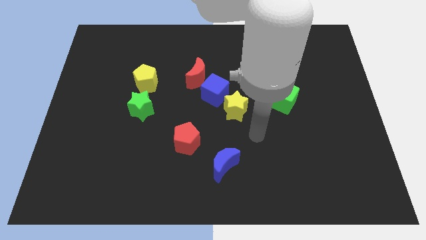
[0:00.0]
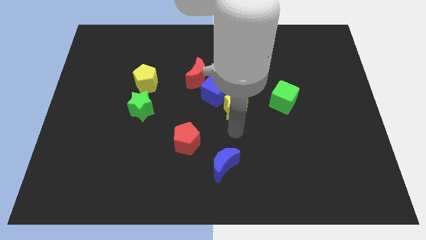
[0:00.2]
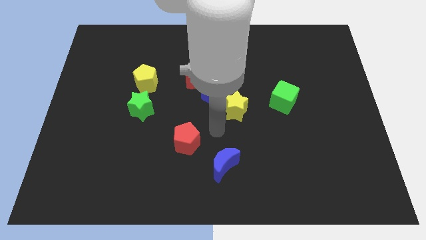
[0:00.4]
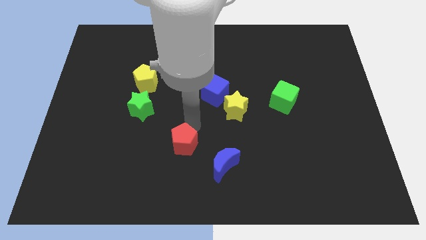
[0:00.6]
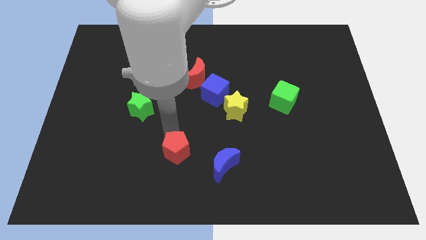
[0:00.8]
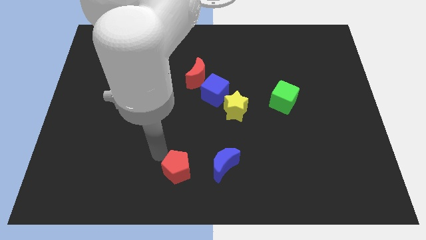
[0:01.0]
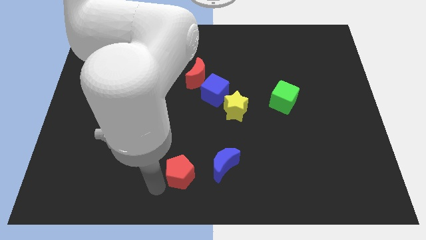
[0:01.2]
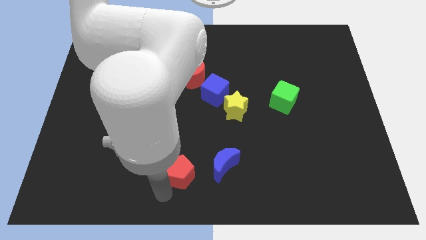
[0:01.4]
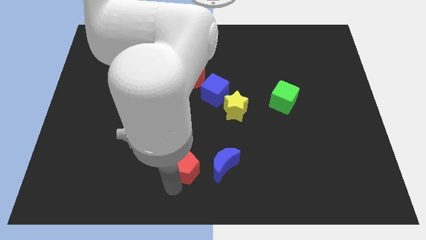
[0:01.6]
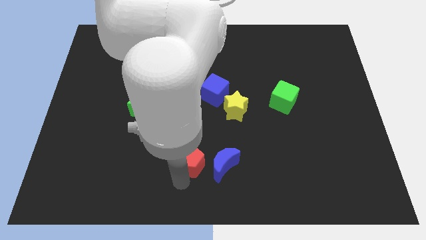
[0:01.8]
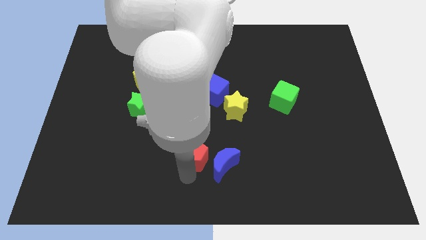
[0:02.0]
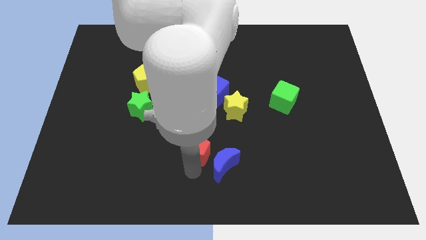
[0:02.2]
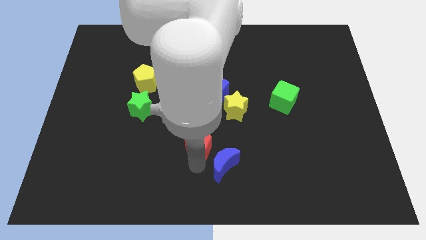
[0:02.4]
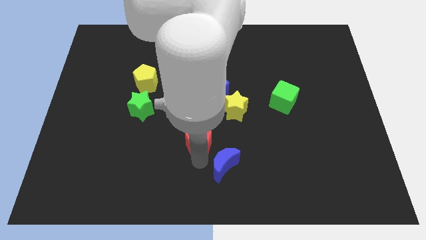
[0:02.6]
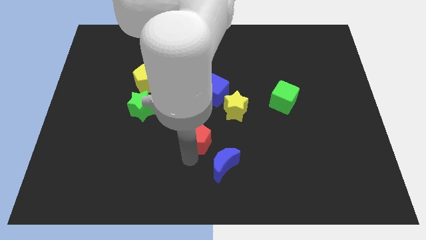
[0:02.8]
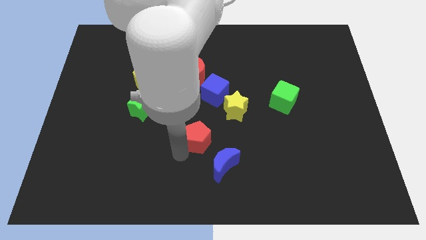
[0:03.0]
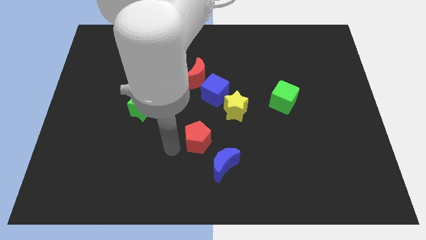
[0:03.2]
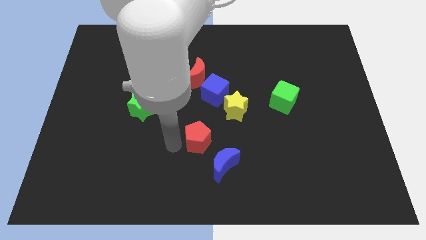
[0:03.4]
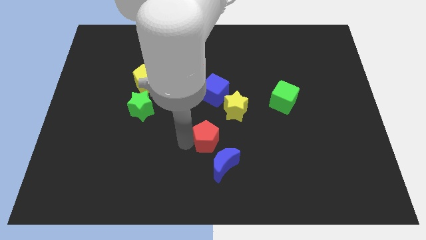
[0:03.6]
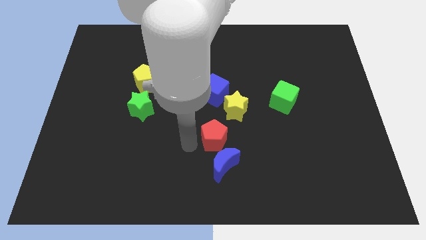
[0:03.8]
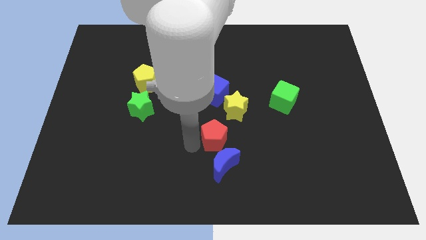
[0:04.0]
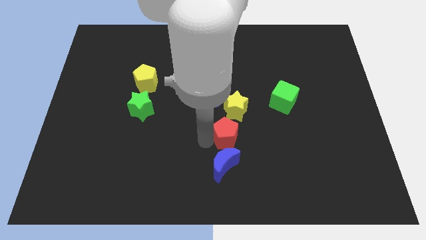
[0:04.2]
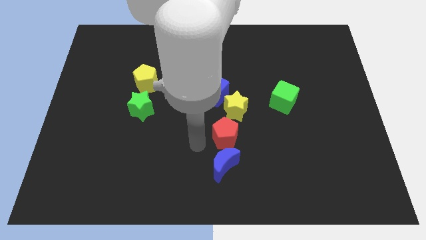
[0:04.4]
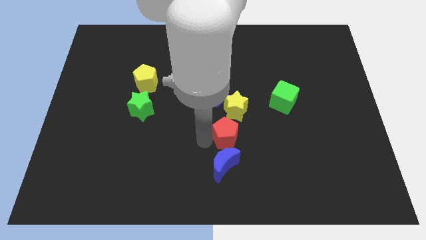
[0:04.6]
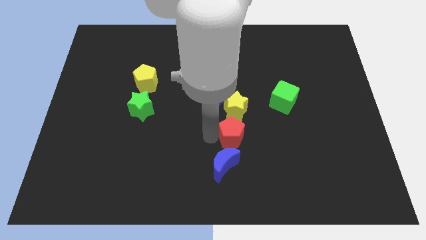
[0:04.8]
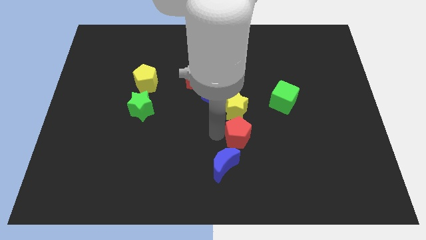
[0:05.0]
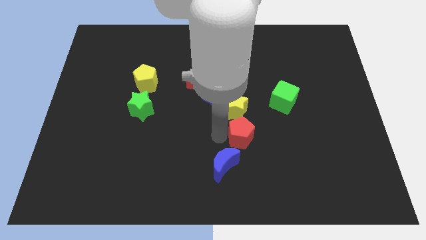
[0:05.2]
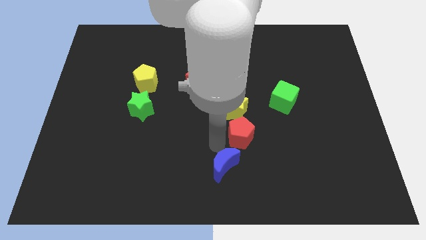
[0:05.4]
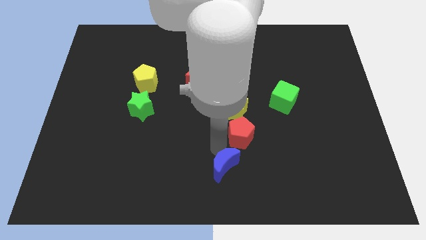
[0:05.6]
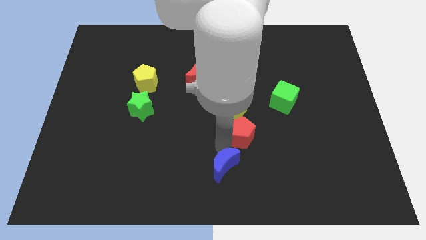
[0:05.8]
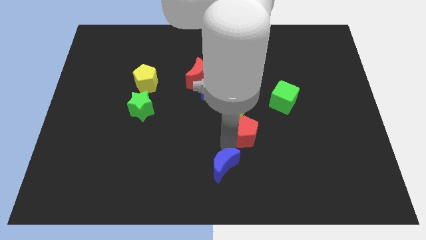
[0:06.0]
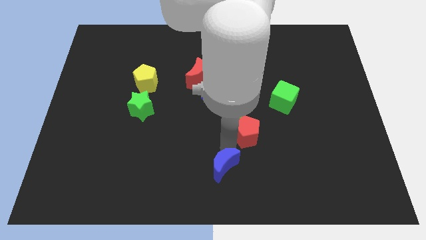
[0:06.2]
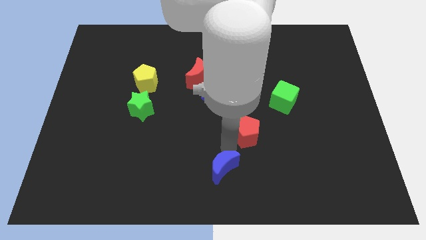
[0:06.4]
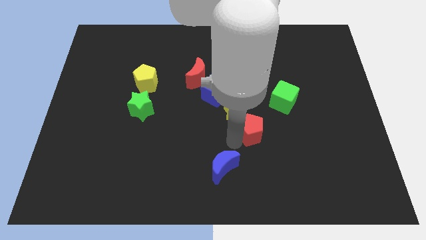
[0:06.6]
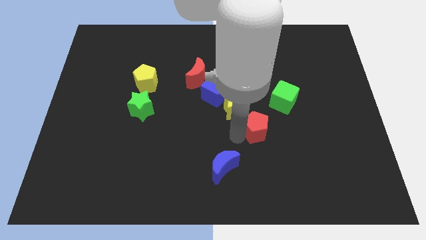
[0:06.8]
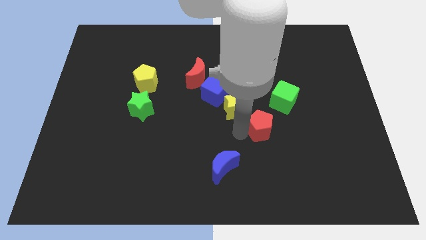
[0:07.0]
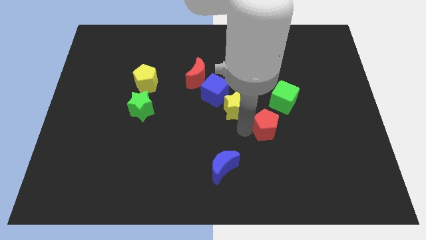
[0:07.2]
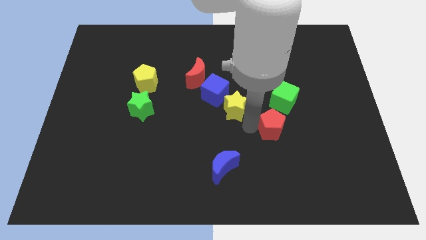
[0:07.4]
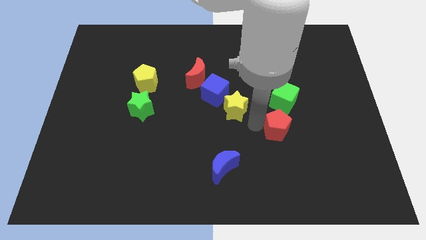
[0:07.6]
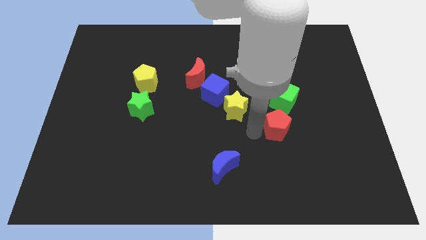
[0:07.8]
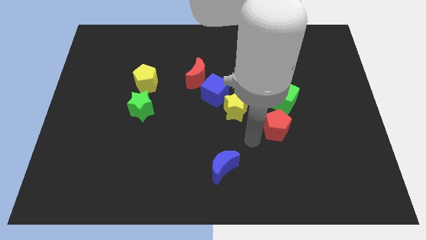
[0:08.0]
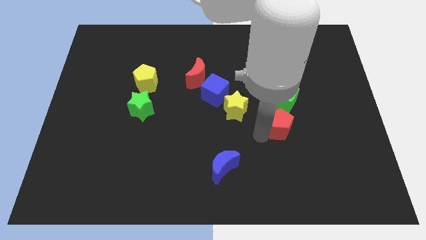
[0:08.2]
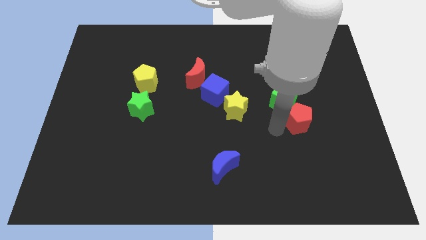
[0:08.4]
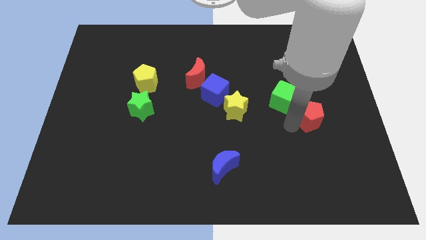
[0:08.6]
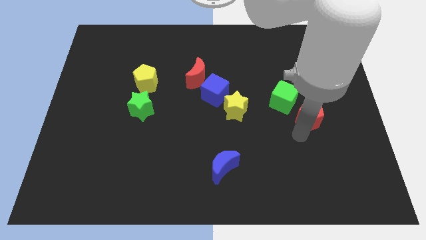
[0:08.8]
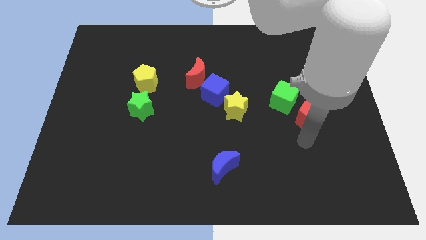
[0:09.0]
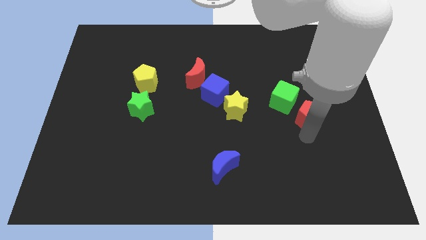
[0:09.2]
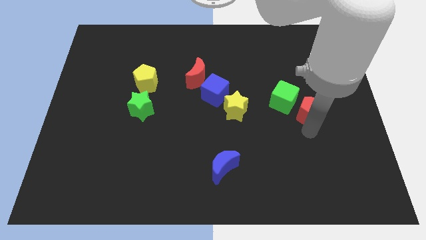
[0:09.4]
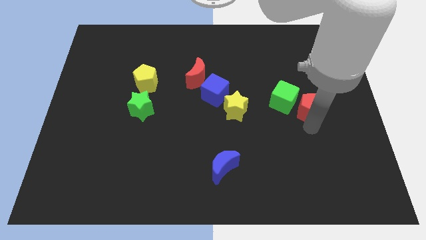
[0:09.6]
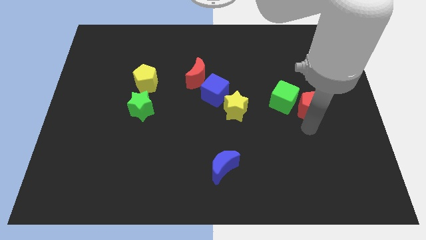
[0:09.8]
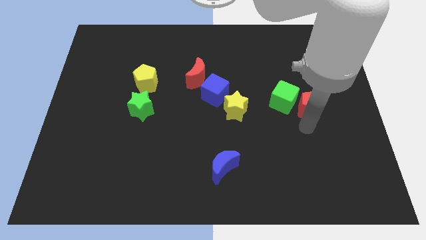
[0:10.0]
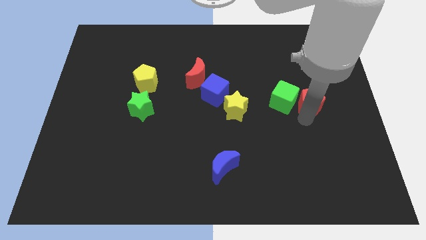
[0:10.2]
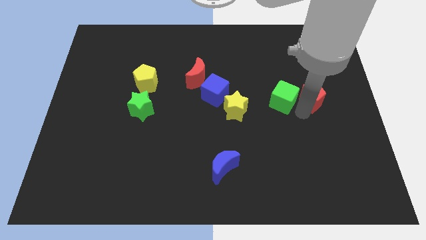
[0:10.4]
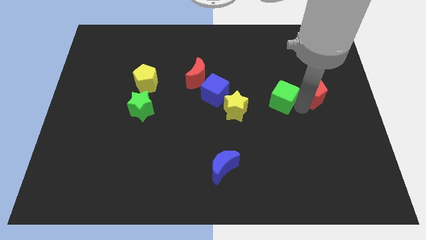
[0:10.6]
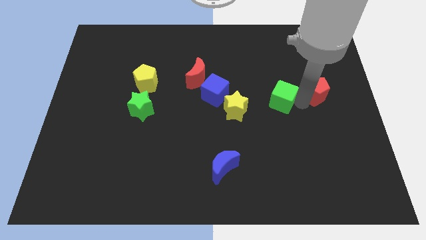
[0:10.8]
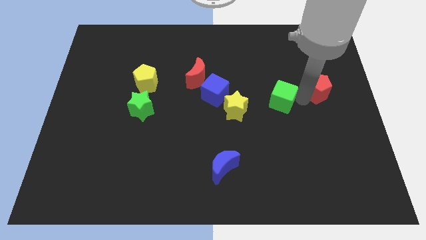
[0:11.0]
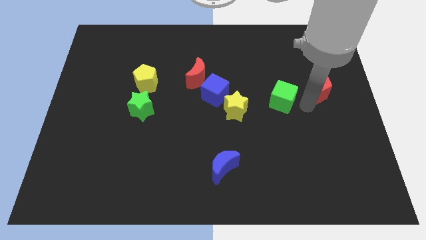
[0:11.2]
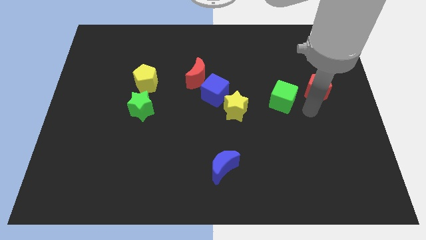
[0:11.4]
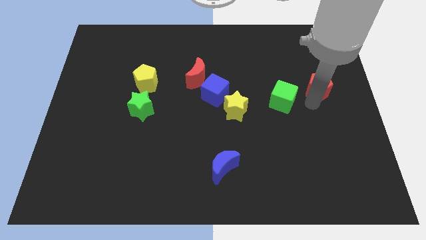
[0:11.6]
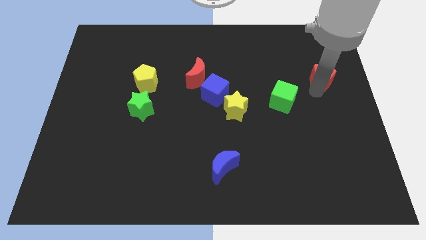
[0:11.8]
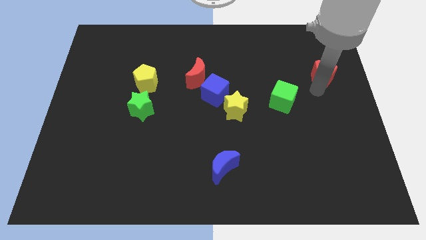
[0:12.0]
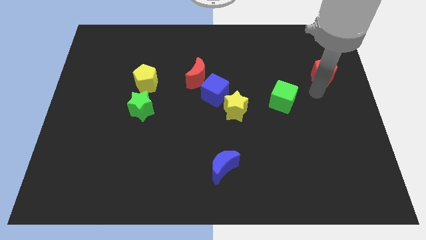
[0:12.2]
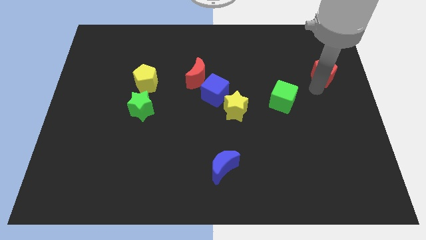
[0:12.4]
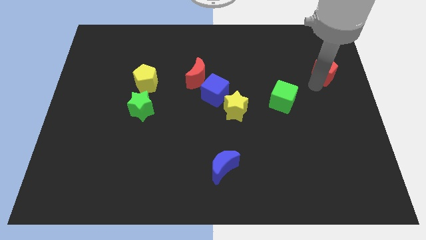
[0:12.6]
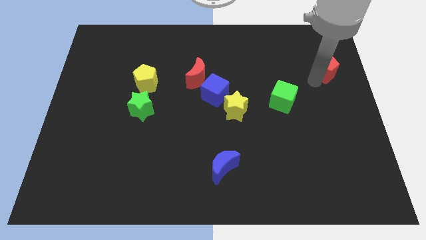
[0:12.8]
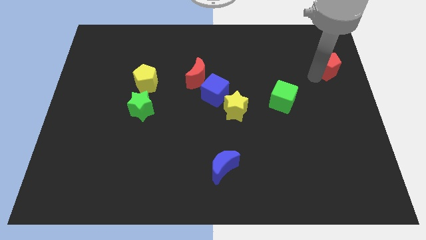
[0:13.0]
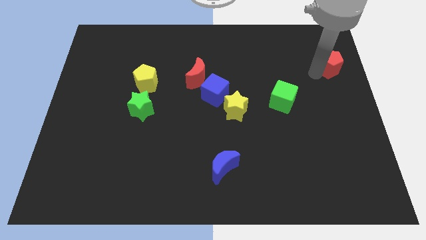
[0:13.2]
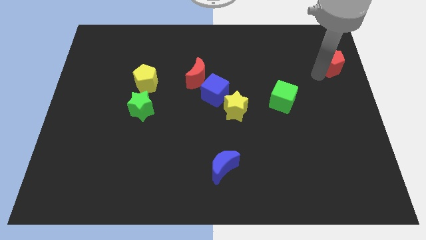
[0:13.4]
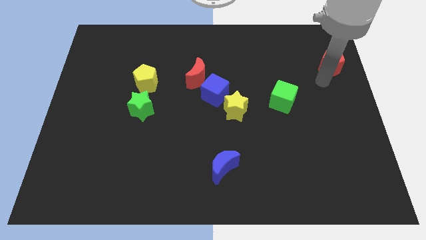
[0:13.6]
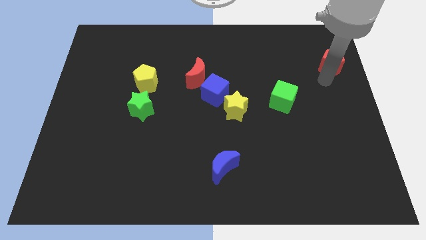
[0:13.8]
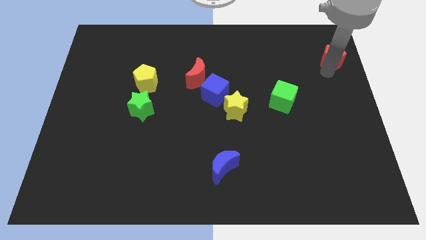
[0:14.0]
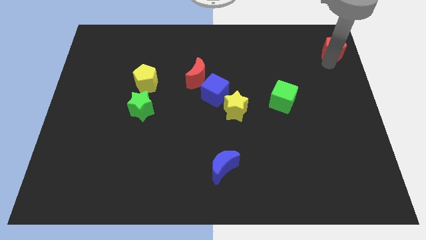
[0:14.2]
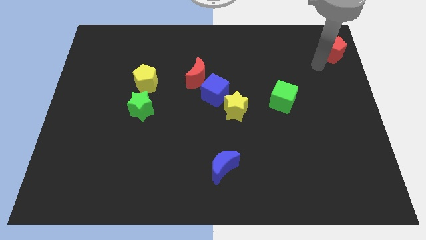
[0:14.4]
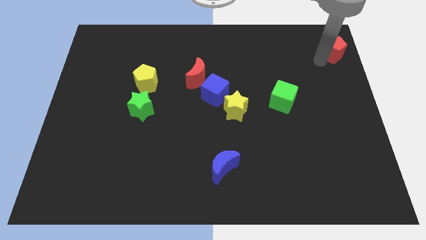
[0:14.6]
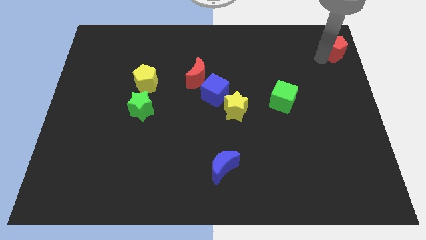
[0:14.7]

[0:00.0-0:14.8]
slide the red pentagon to the top right
